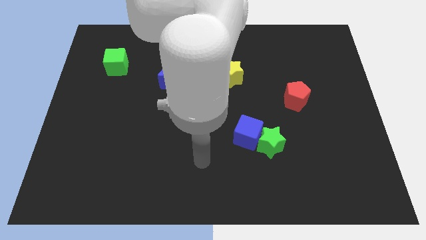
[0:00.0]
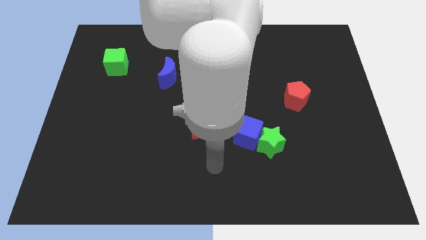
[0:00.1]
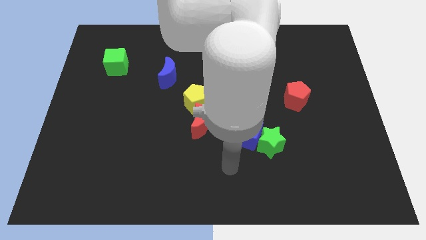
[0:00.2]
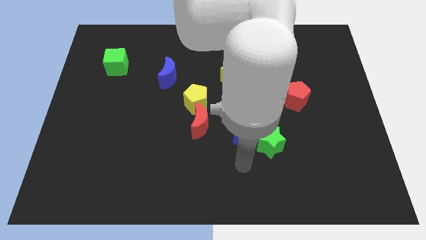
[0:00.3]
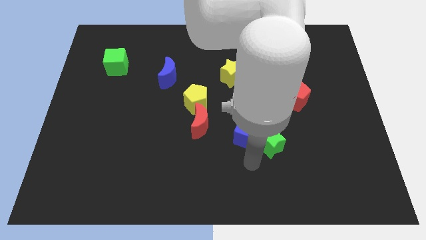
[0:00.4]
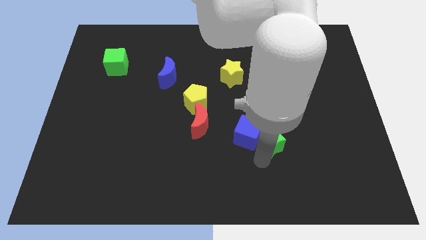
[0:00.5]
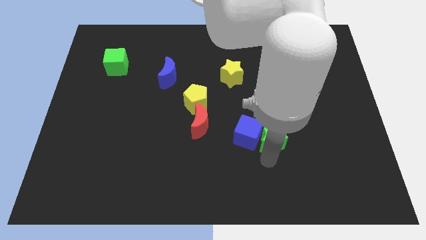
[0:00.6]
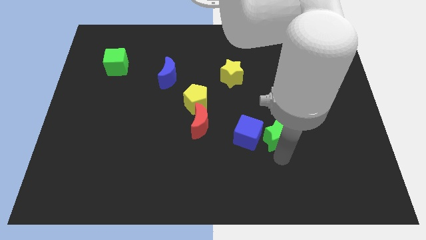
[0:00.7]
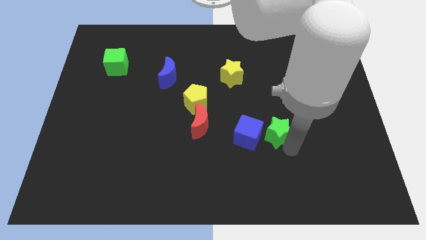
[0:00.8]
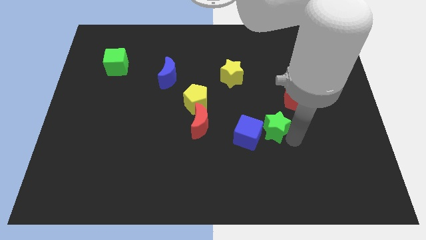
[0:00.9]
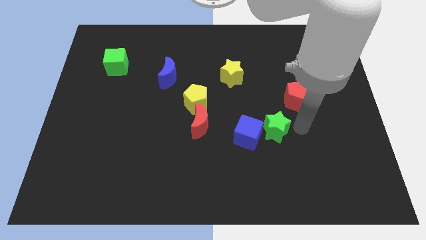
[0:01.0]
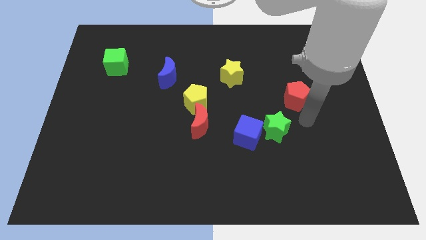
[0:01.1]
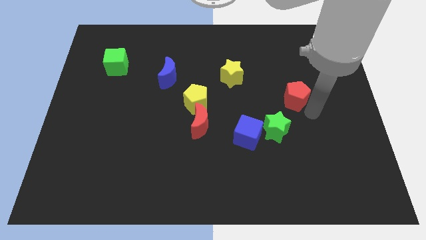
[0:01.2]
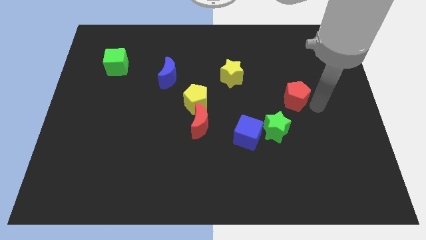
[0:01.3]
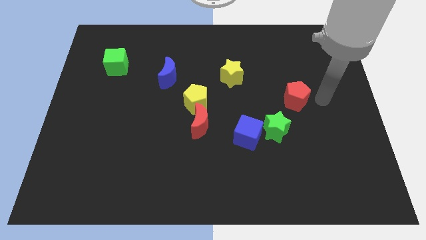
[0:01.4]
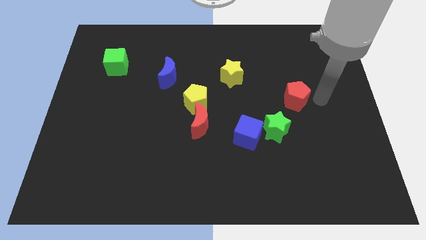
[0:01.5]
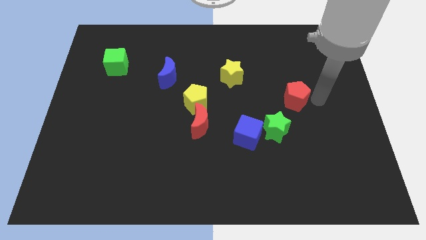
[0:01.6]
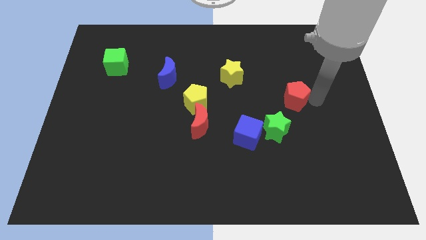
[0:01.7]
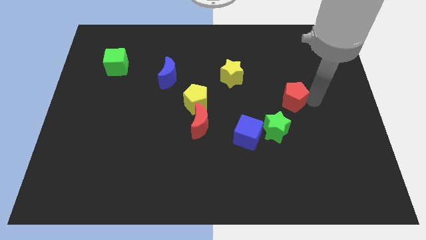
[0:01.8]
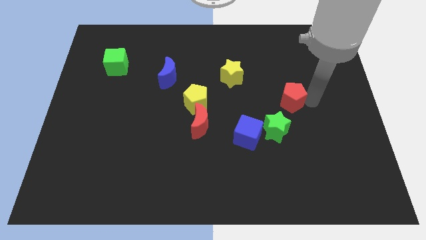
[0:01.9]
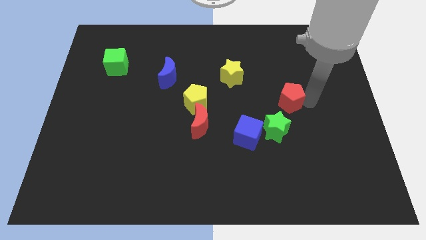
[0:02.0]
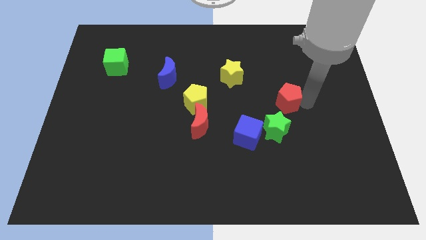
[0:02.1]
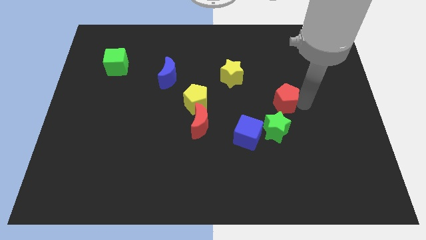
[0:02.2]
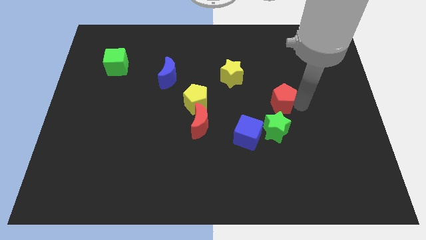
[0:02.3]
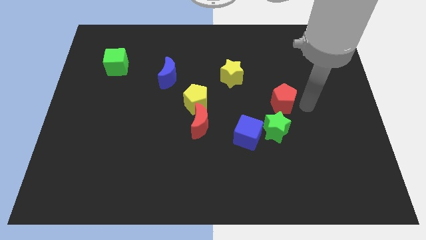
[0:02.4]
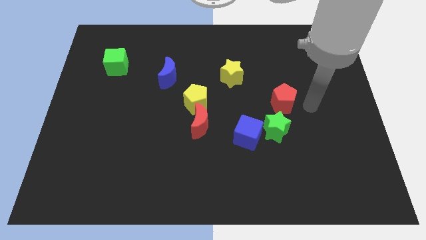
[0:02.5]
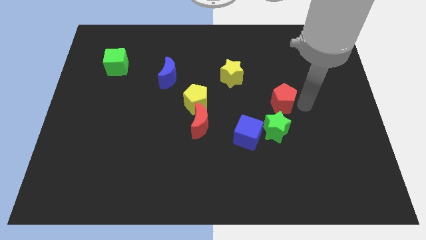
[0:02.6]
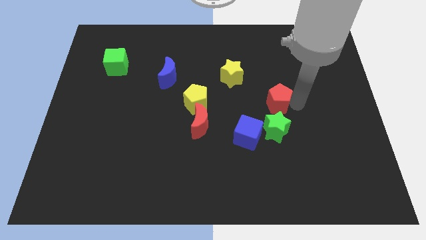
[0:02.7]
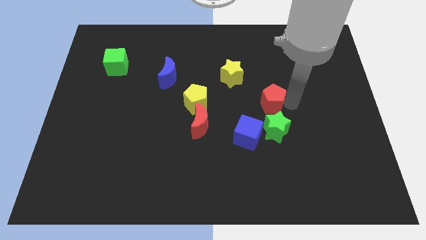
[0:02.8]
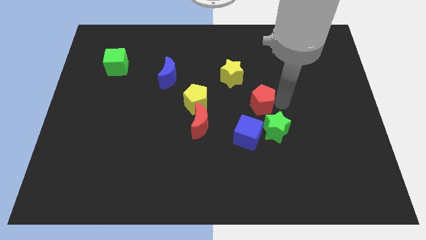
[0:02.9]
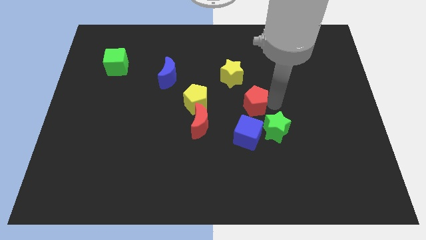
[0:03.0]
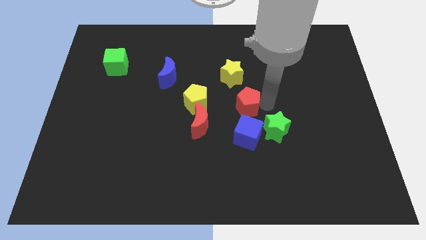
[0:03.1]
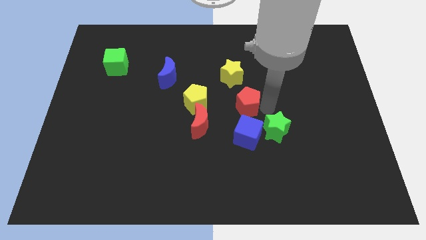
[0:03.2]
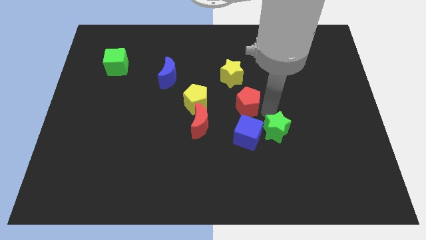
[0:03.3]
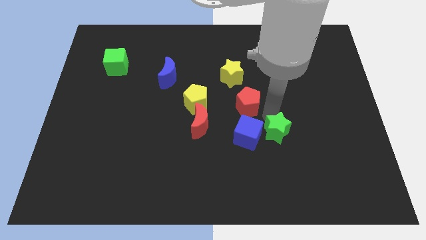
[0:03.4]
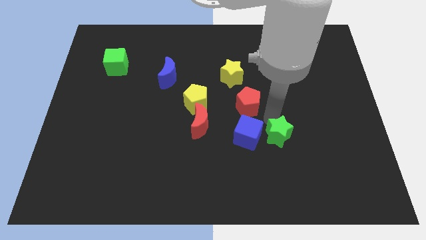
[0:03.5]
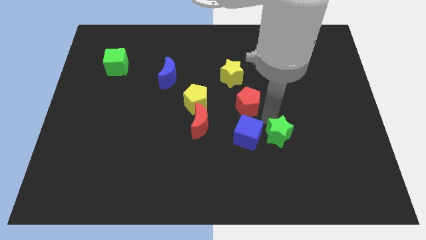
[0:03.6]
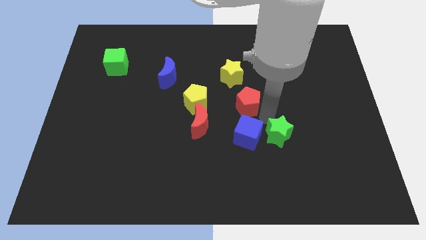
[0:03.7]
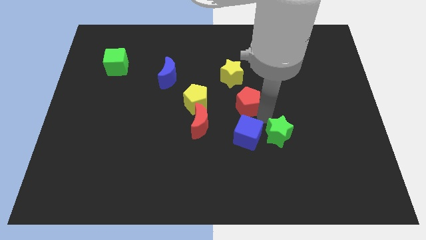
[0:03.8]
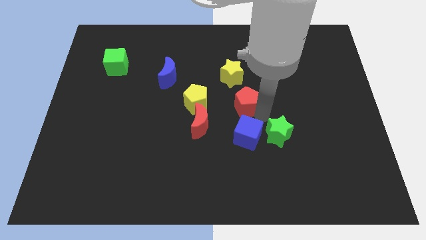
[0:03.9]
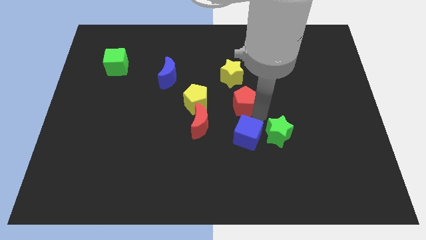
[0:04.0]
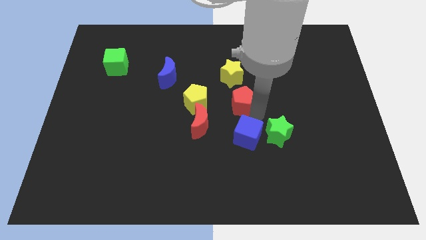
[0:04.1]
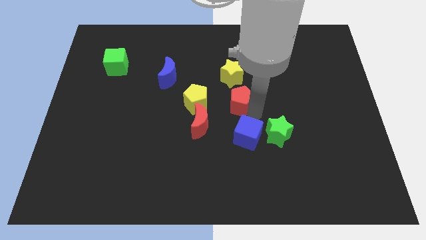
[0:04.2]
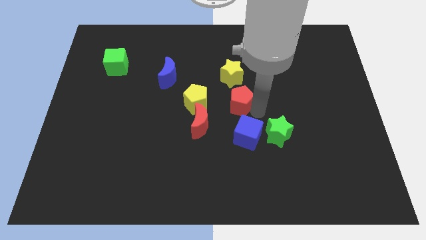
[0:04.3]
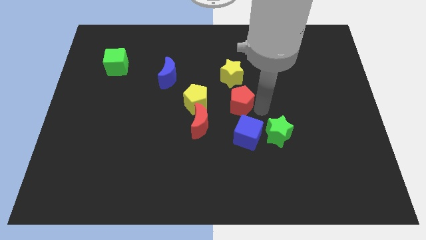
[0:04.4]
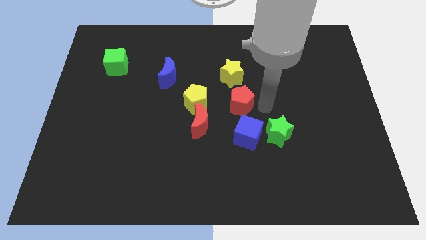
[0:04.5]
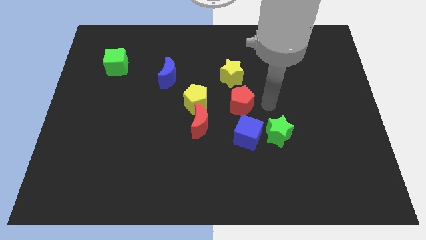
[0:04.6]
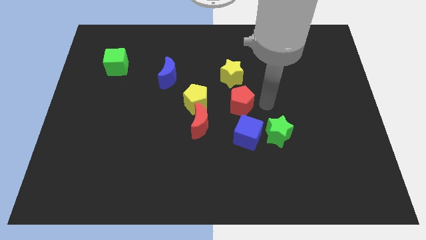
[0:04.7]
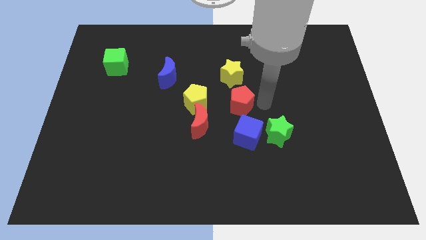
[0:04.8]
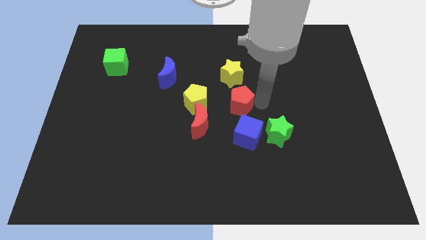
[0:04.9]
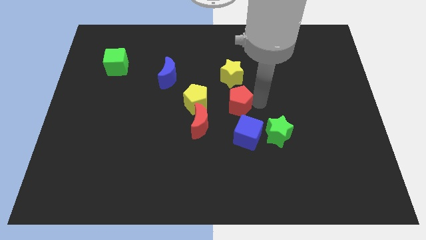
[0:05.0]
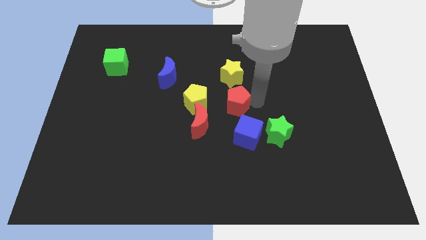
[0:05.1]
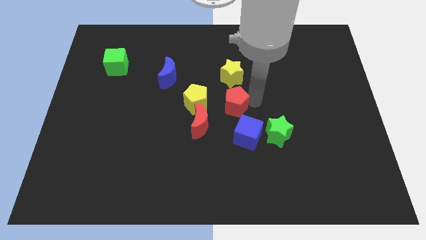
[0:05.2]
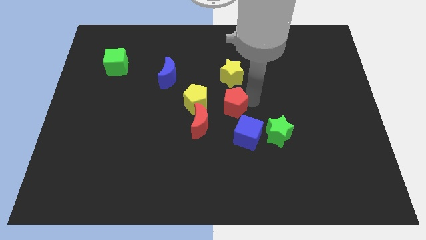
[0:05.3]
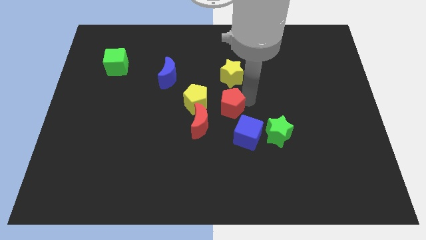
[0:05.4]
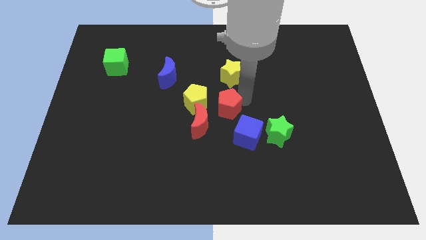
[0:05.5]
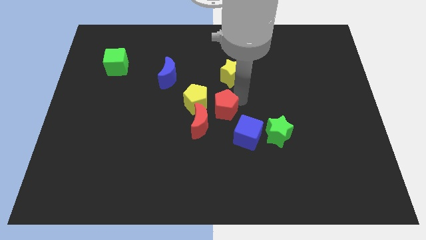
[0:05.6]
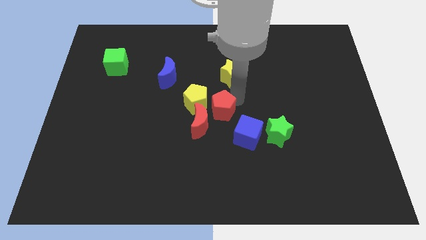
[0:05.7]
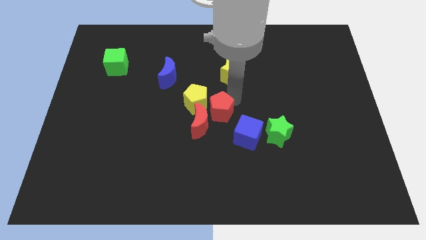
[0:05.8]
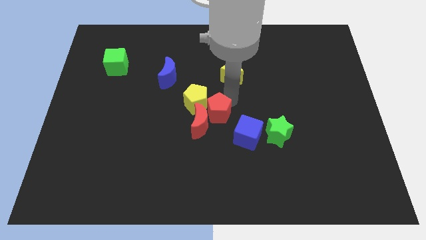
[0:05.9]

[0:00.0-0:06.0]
slide the red pentagon towards the yellow pentagon

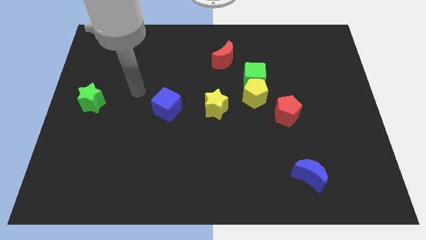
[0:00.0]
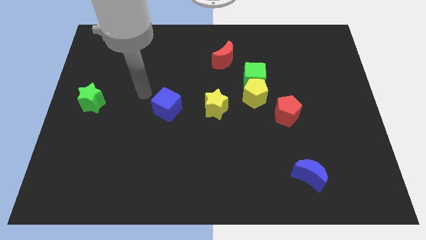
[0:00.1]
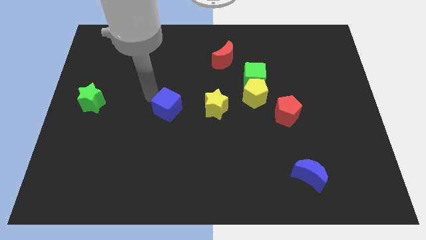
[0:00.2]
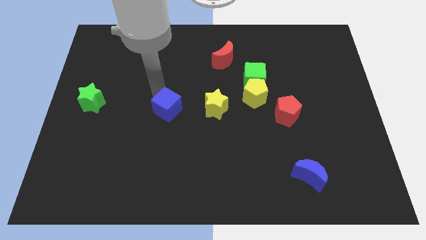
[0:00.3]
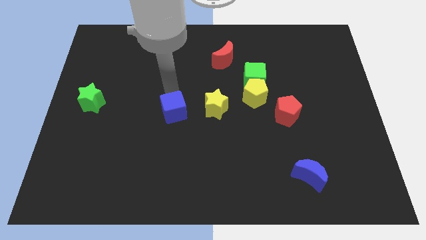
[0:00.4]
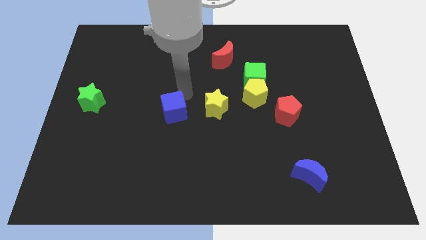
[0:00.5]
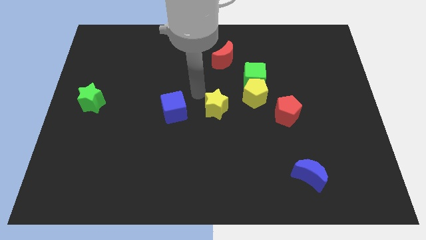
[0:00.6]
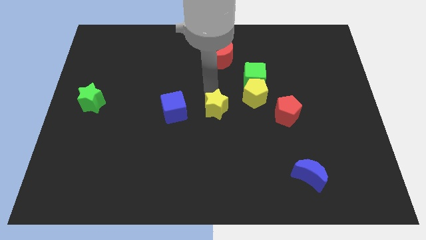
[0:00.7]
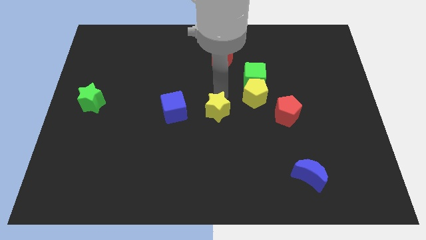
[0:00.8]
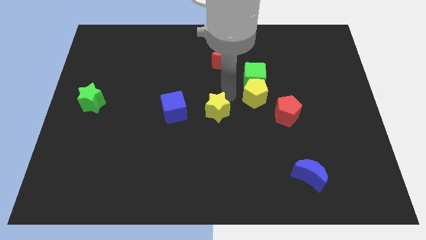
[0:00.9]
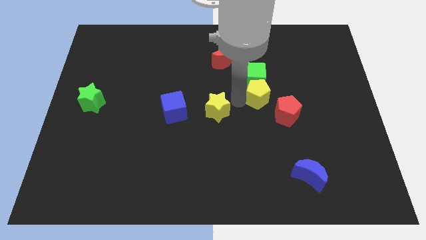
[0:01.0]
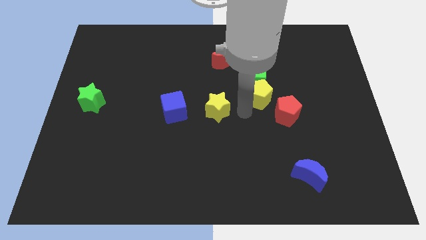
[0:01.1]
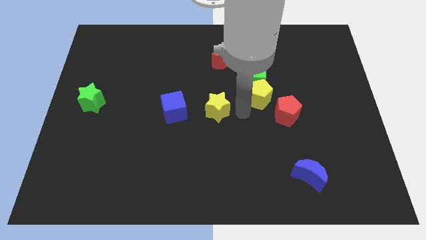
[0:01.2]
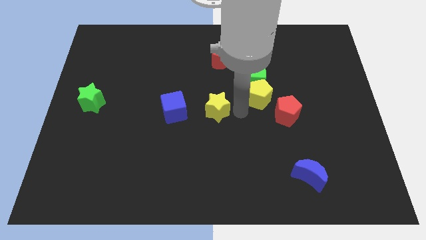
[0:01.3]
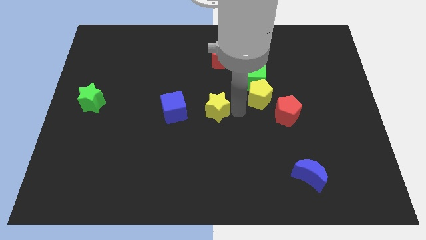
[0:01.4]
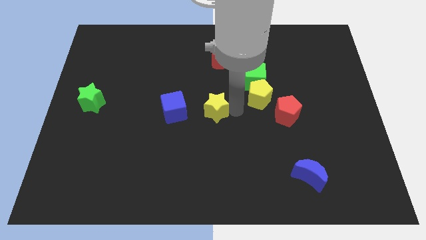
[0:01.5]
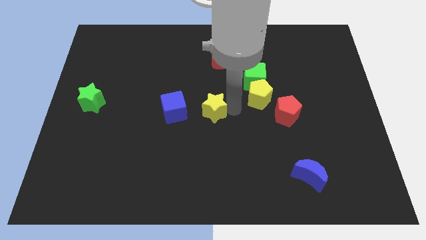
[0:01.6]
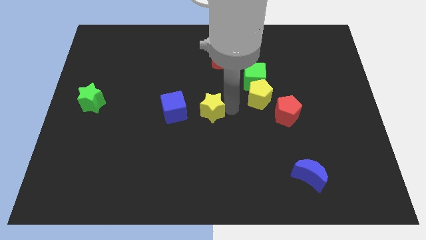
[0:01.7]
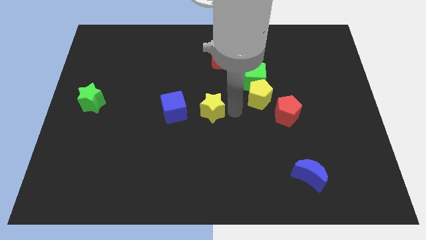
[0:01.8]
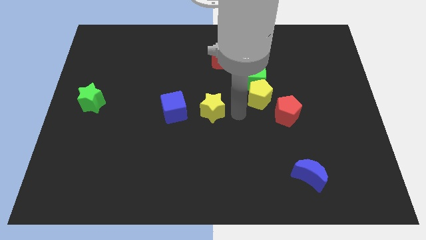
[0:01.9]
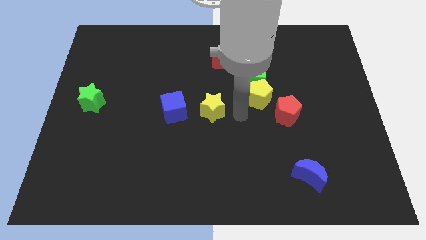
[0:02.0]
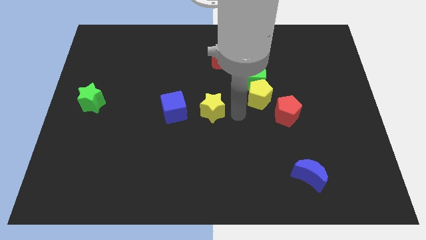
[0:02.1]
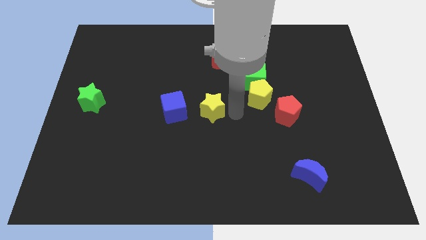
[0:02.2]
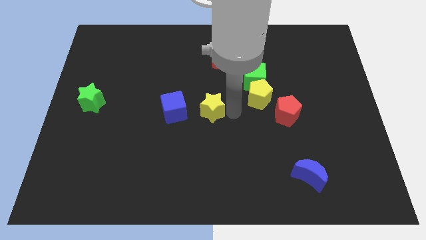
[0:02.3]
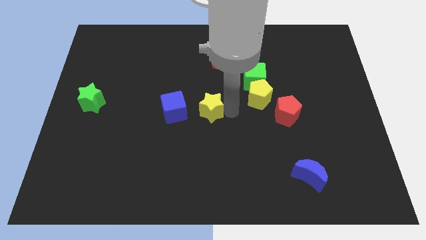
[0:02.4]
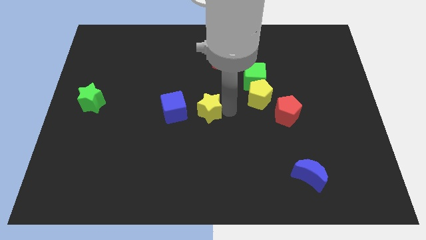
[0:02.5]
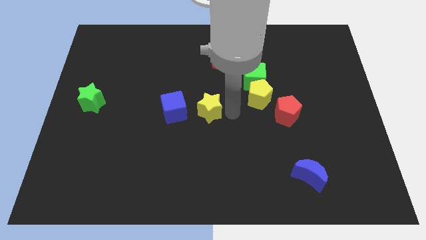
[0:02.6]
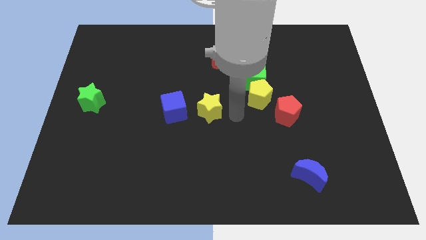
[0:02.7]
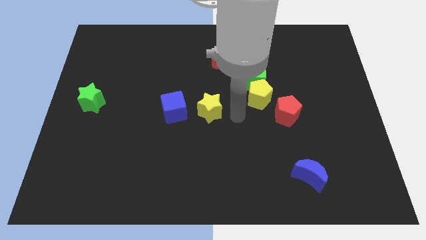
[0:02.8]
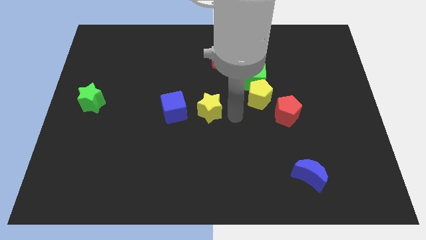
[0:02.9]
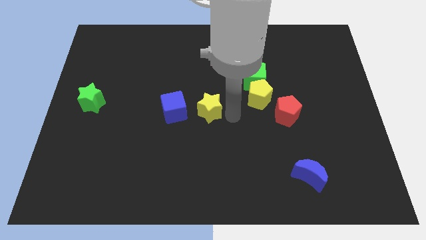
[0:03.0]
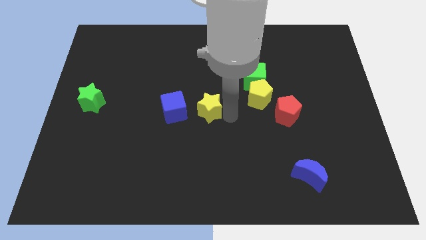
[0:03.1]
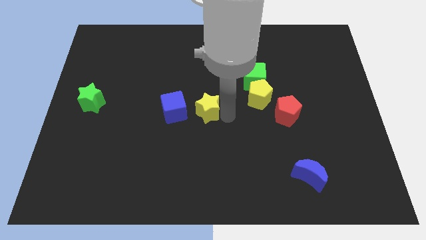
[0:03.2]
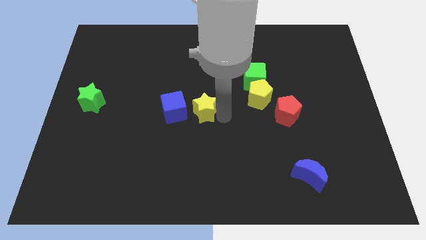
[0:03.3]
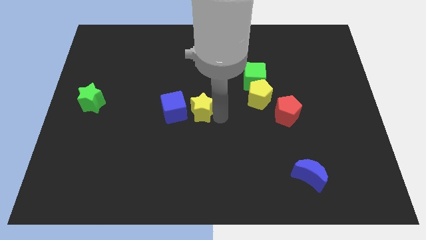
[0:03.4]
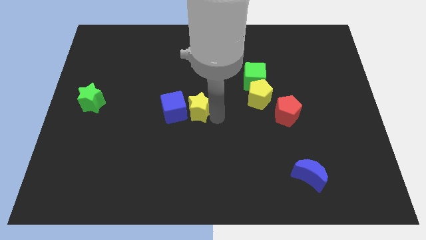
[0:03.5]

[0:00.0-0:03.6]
move the yellow star close to the blue cube
